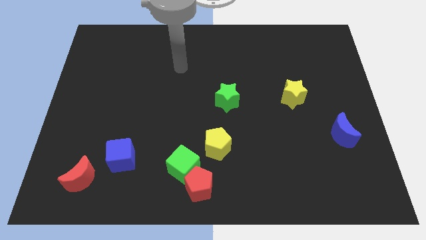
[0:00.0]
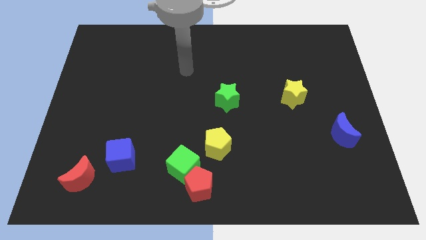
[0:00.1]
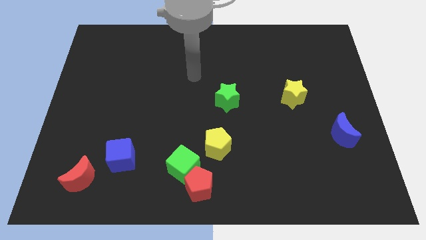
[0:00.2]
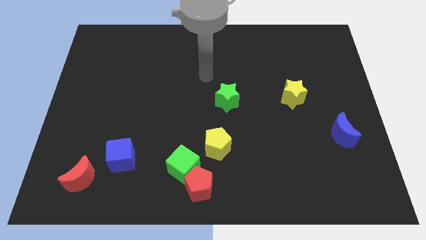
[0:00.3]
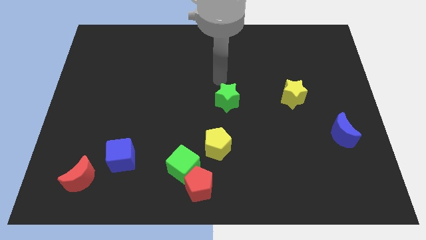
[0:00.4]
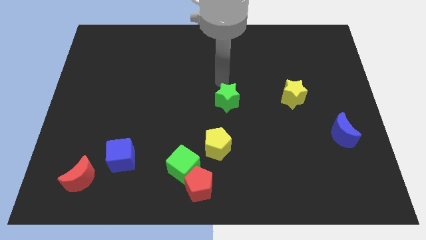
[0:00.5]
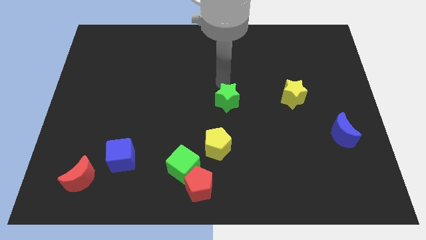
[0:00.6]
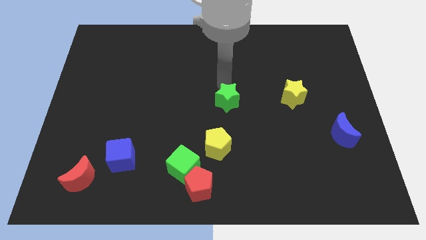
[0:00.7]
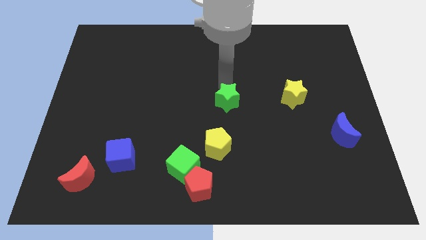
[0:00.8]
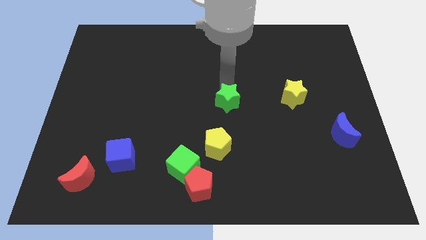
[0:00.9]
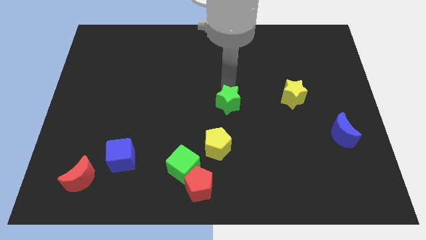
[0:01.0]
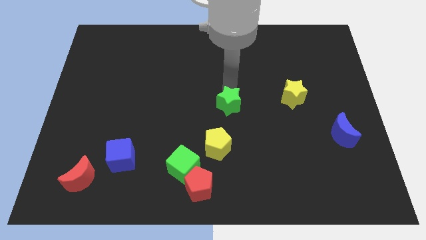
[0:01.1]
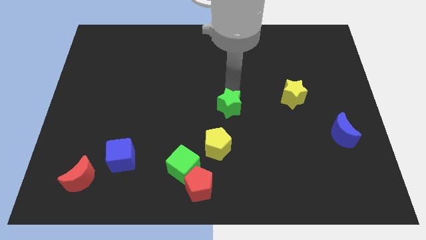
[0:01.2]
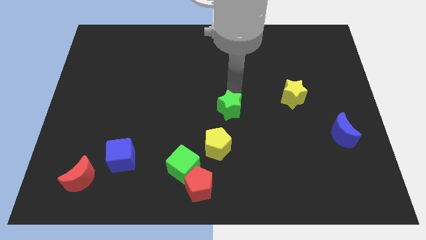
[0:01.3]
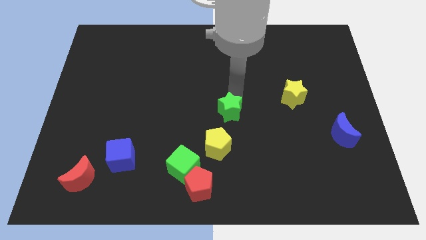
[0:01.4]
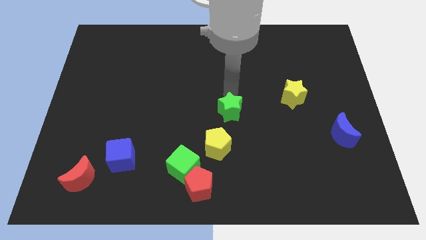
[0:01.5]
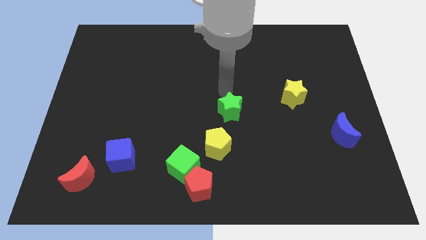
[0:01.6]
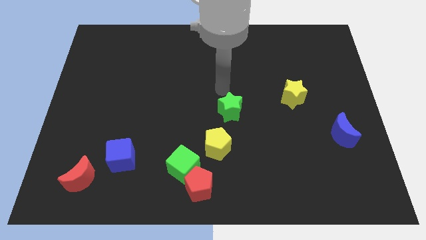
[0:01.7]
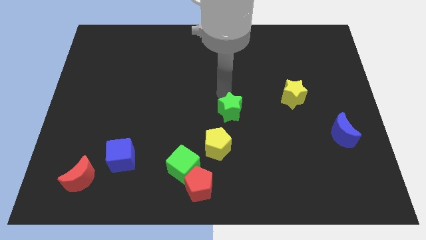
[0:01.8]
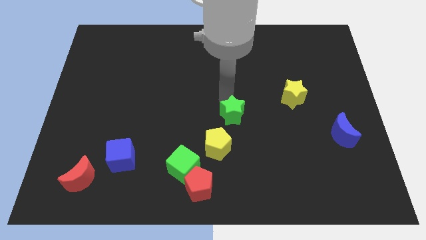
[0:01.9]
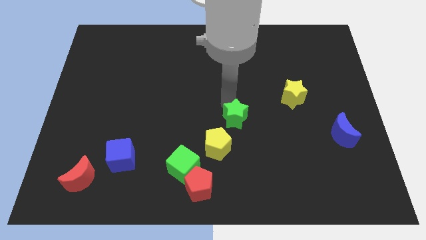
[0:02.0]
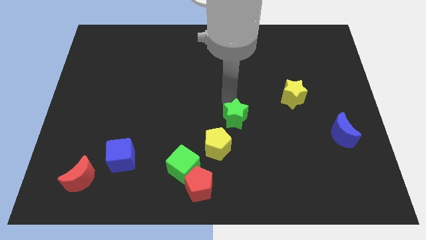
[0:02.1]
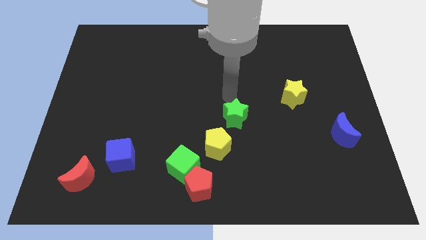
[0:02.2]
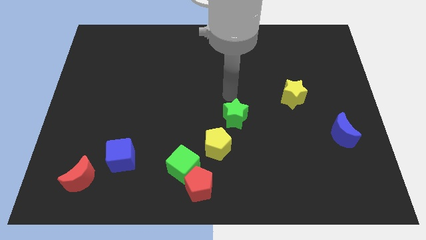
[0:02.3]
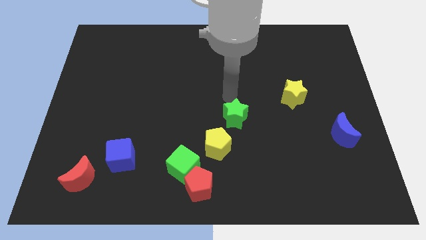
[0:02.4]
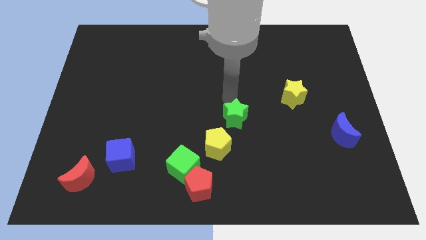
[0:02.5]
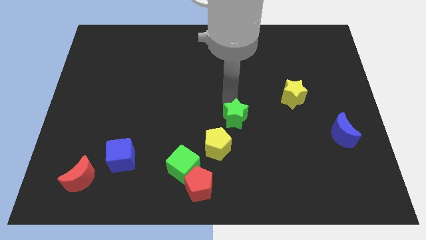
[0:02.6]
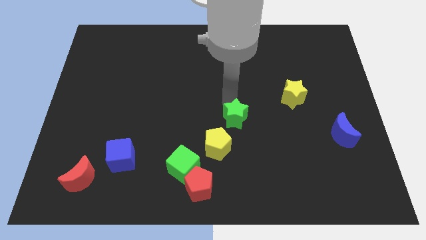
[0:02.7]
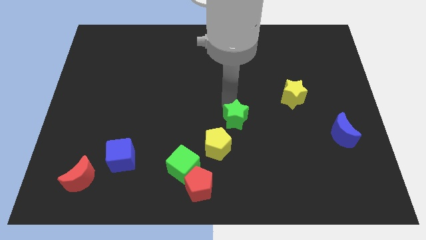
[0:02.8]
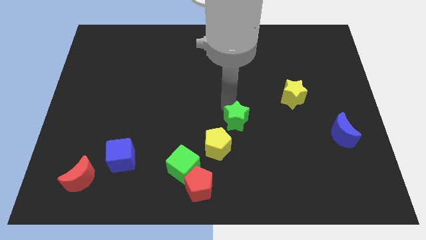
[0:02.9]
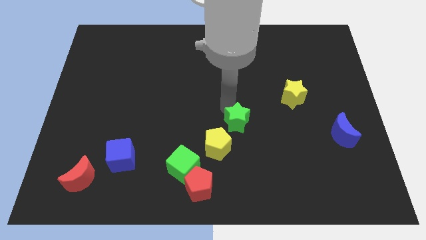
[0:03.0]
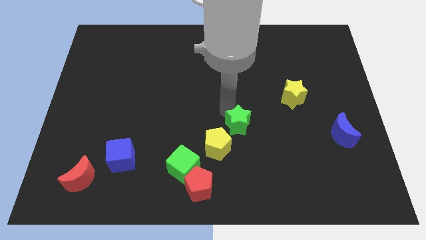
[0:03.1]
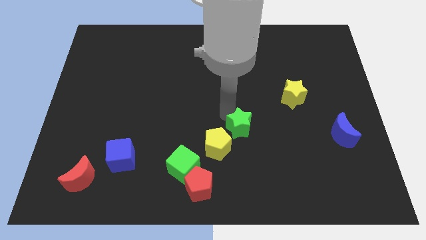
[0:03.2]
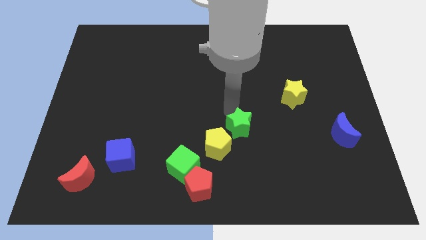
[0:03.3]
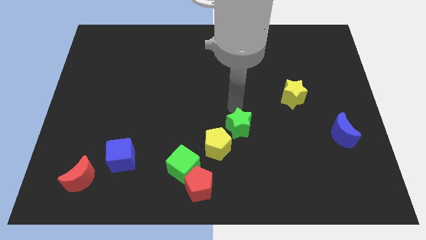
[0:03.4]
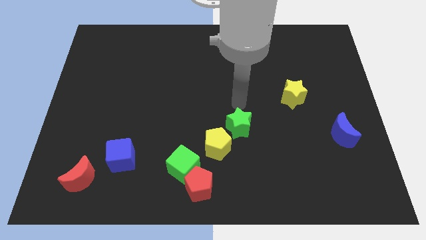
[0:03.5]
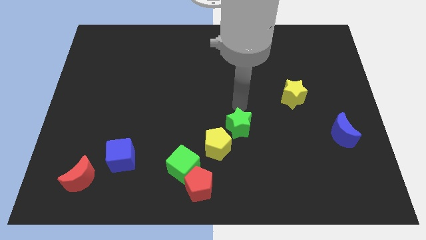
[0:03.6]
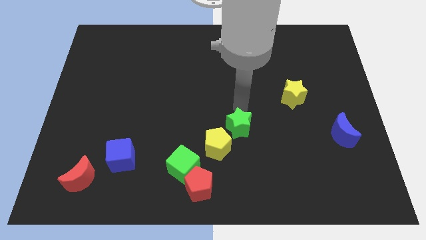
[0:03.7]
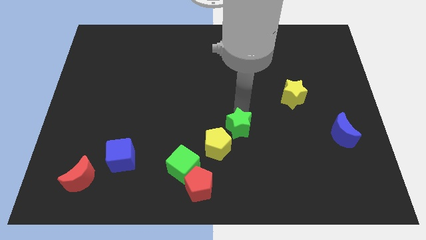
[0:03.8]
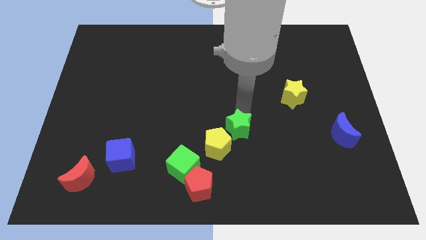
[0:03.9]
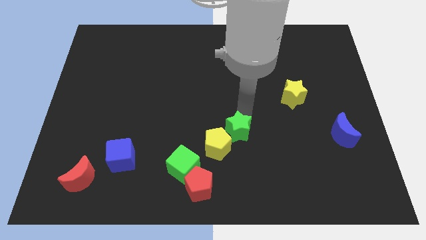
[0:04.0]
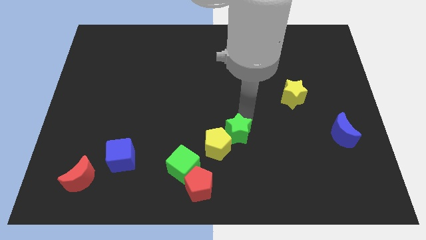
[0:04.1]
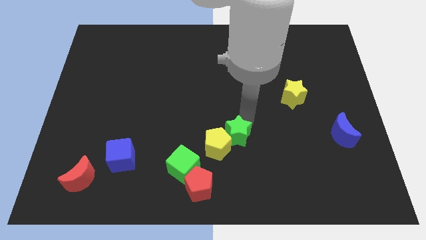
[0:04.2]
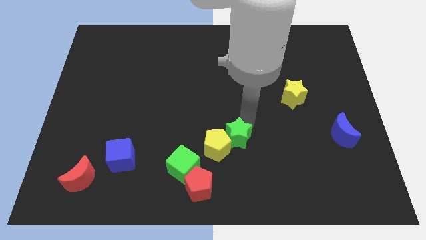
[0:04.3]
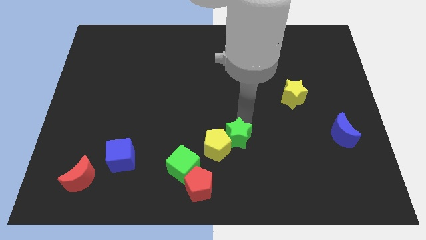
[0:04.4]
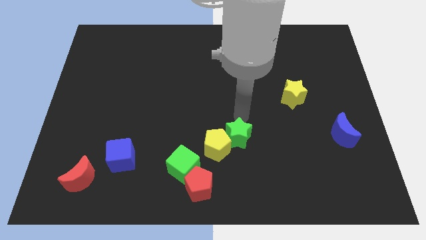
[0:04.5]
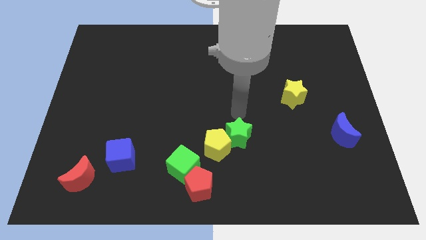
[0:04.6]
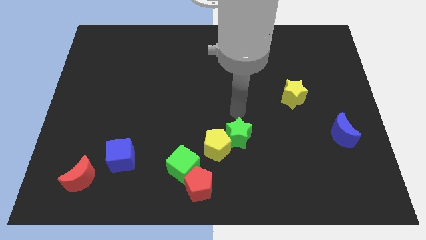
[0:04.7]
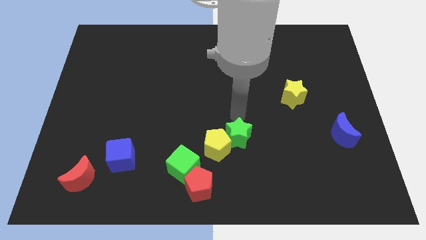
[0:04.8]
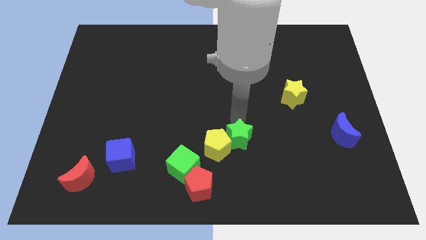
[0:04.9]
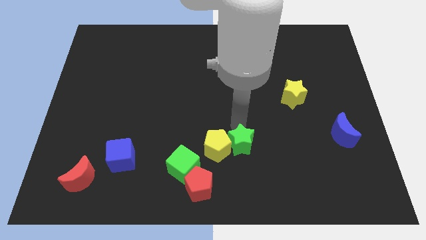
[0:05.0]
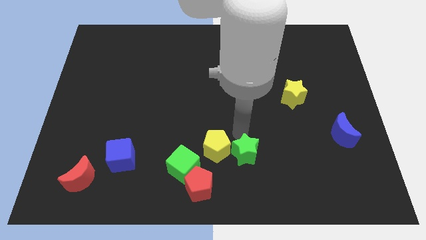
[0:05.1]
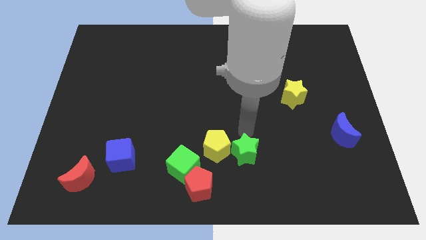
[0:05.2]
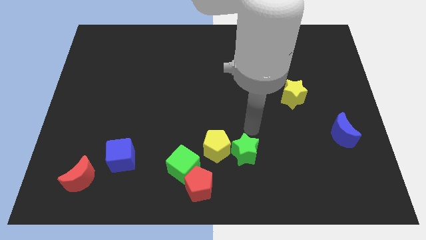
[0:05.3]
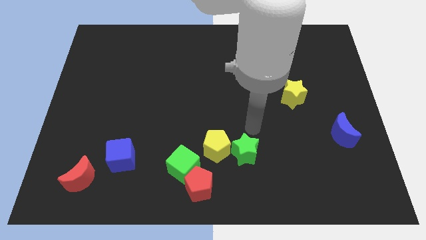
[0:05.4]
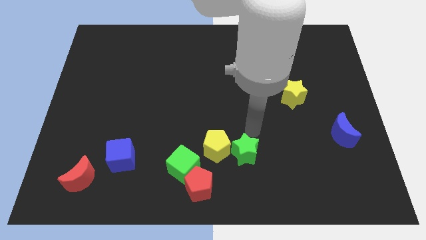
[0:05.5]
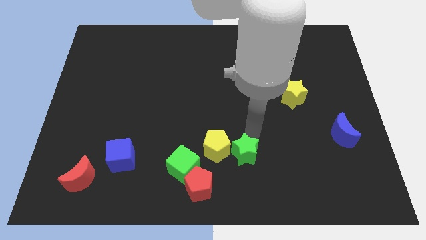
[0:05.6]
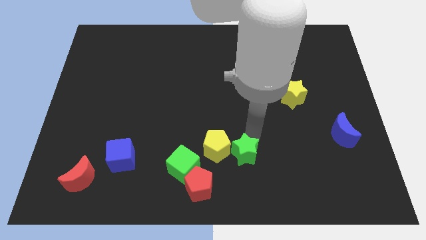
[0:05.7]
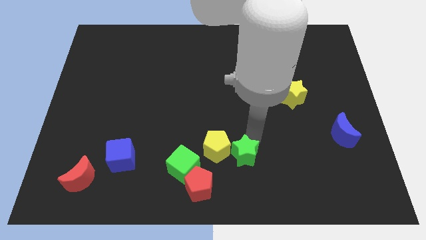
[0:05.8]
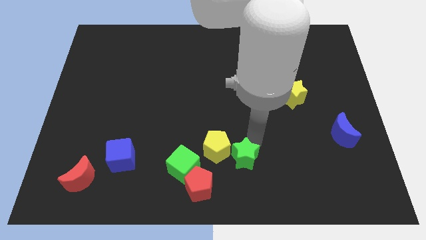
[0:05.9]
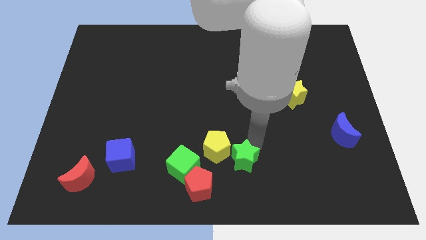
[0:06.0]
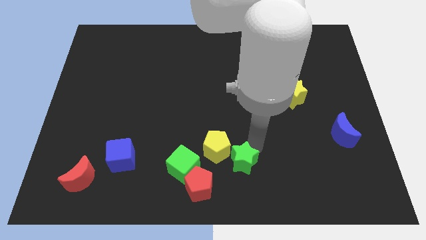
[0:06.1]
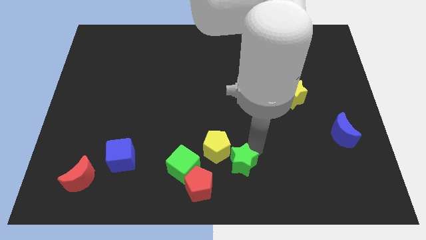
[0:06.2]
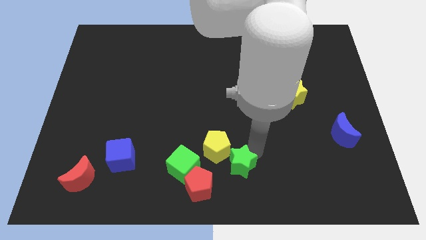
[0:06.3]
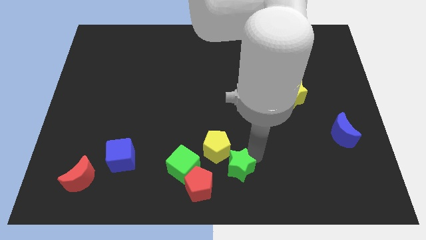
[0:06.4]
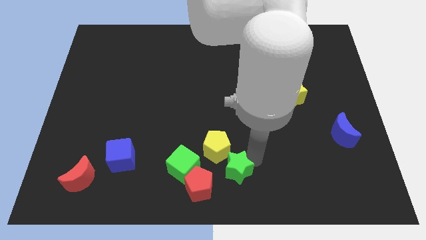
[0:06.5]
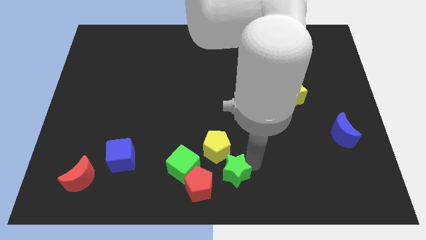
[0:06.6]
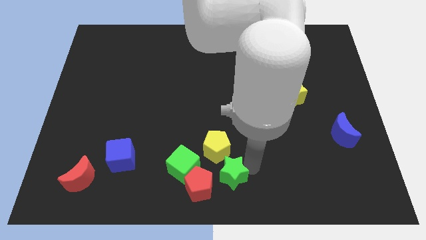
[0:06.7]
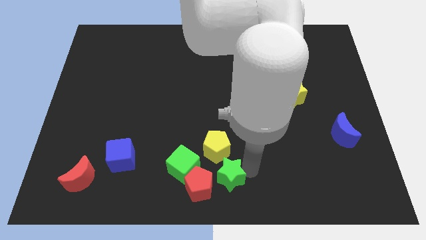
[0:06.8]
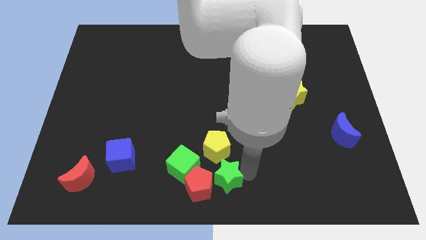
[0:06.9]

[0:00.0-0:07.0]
move the green star close to the red pentagon
